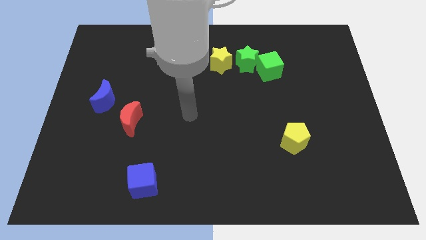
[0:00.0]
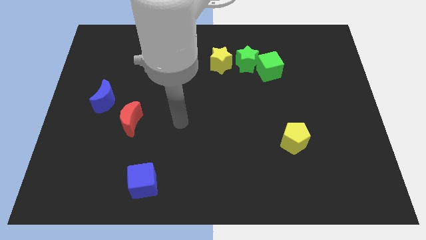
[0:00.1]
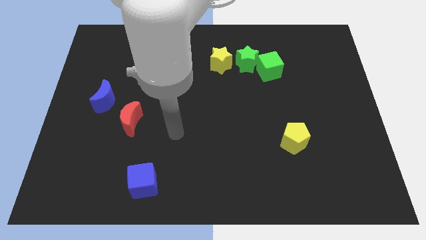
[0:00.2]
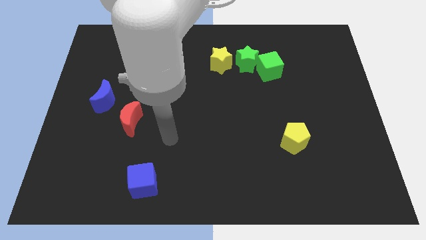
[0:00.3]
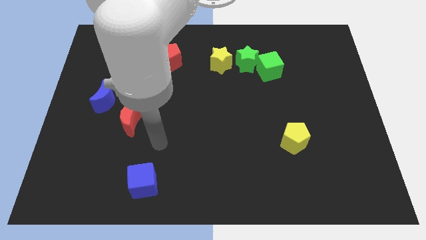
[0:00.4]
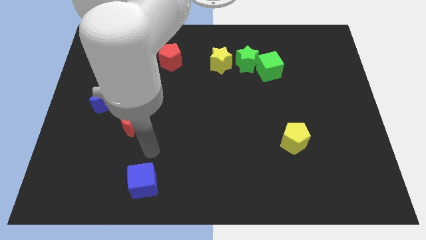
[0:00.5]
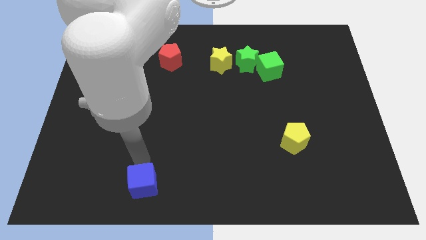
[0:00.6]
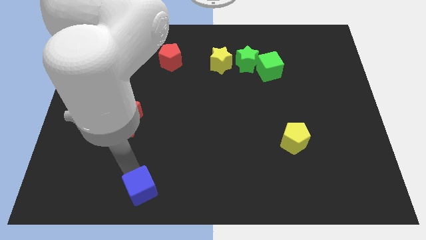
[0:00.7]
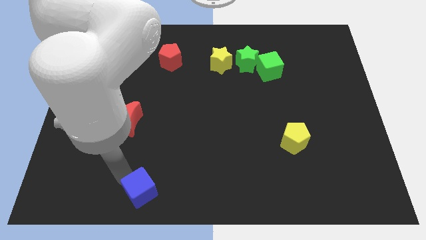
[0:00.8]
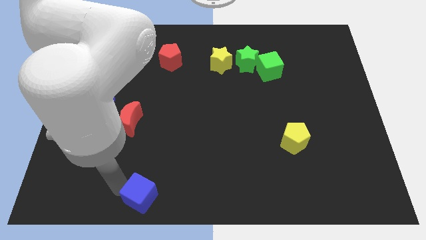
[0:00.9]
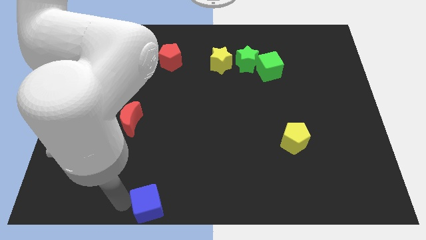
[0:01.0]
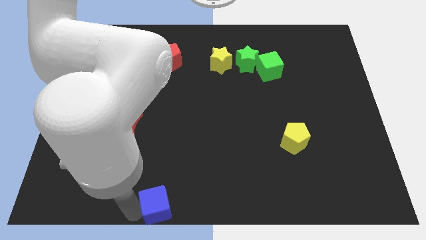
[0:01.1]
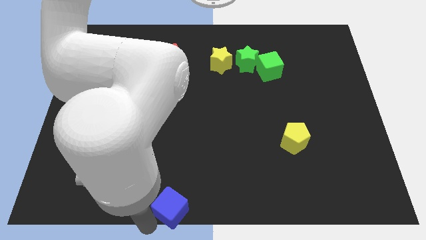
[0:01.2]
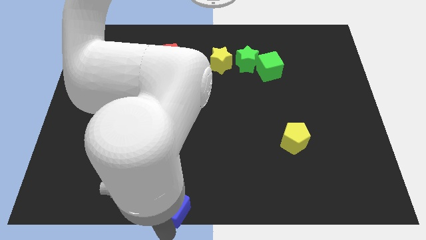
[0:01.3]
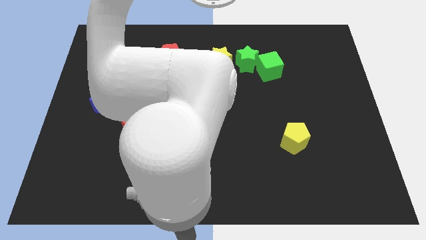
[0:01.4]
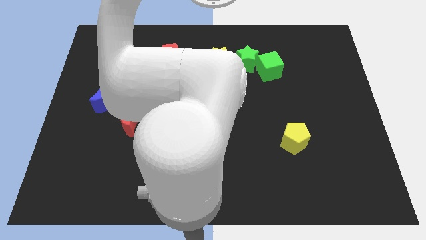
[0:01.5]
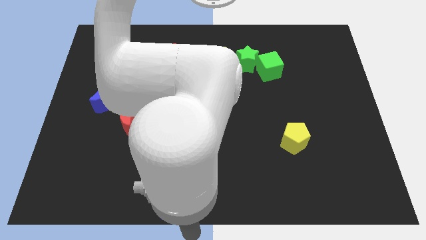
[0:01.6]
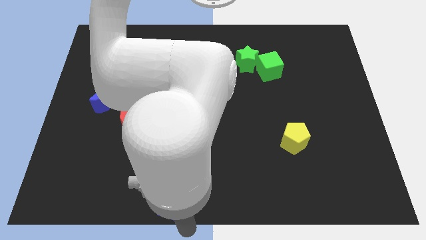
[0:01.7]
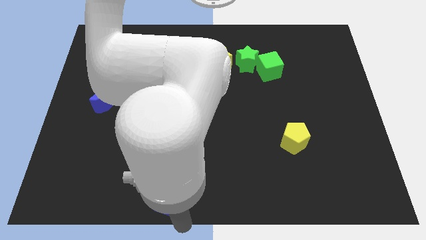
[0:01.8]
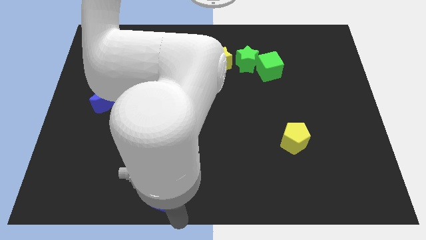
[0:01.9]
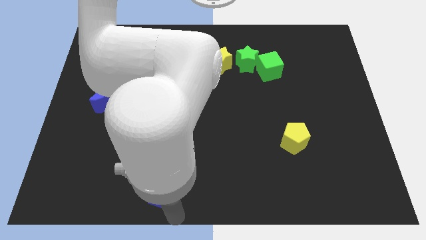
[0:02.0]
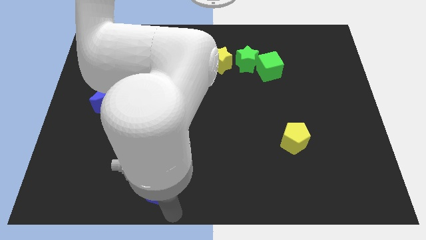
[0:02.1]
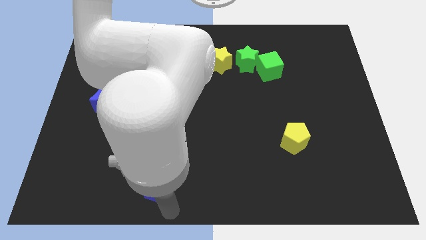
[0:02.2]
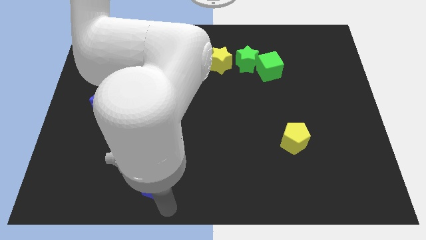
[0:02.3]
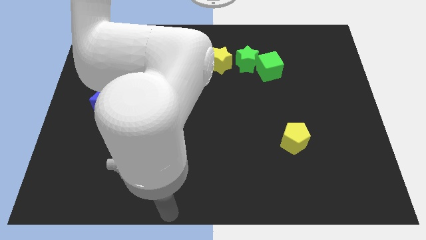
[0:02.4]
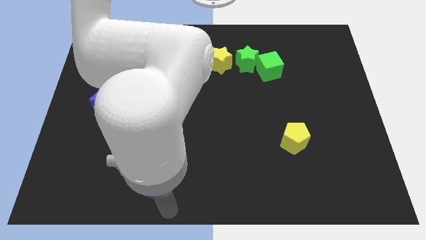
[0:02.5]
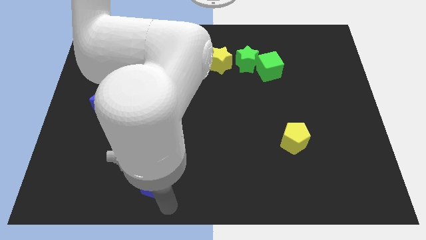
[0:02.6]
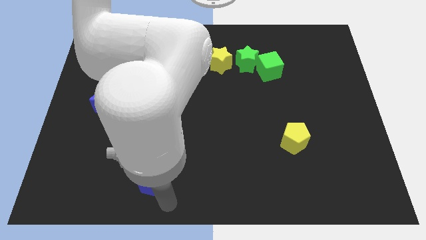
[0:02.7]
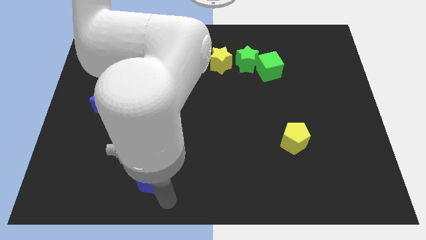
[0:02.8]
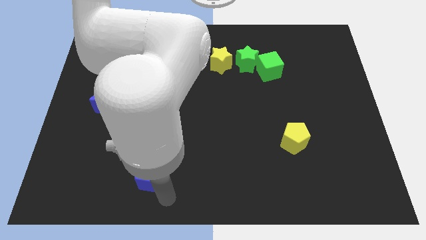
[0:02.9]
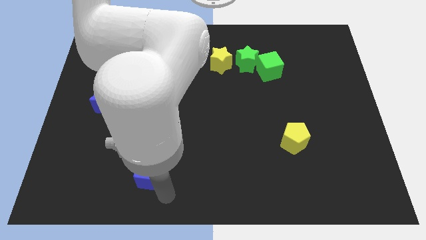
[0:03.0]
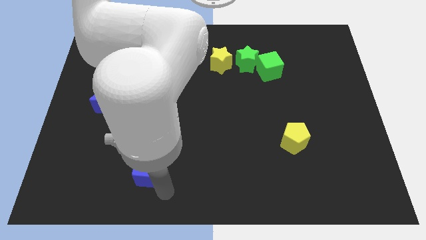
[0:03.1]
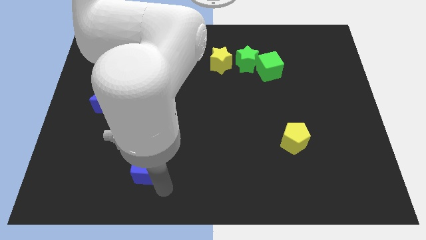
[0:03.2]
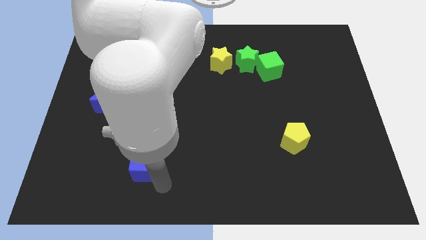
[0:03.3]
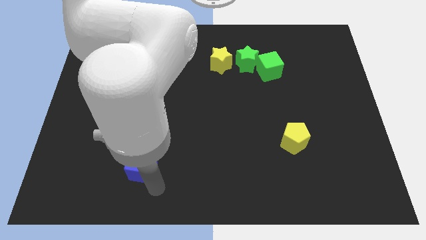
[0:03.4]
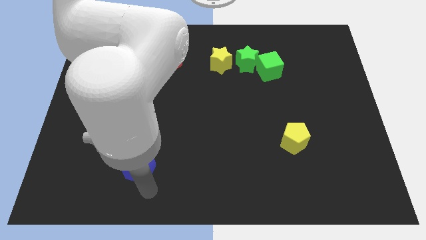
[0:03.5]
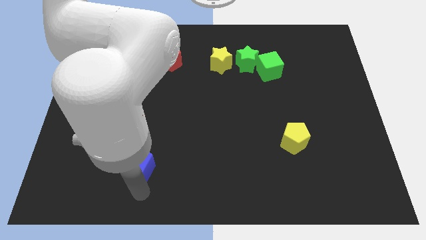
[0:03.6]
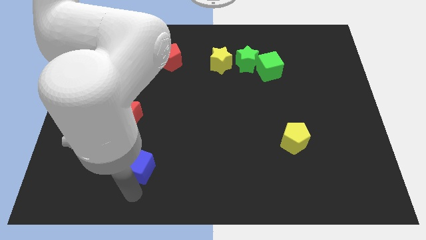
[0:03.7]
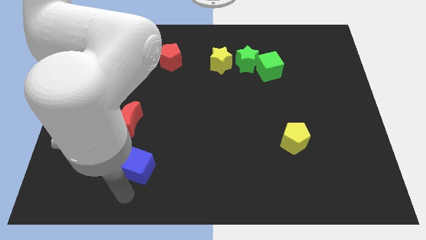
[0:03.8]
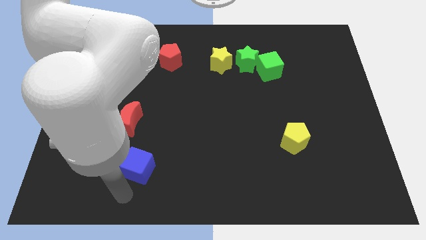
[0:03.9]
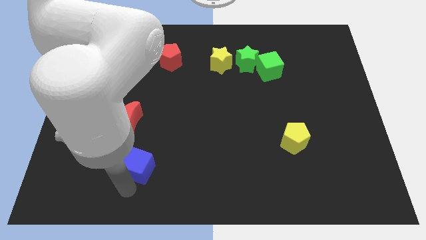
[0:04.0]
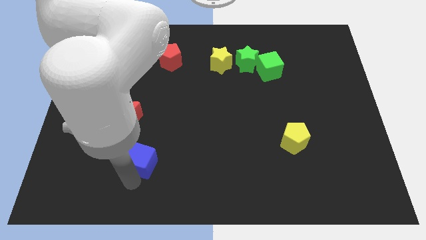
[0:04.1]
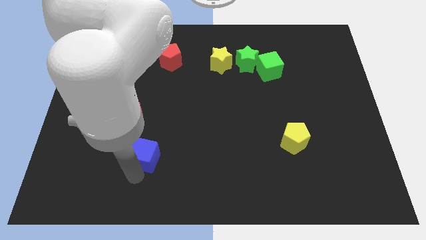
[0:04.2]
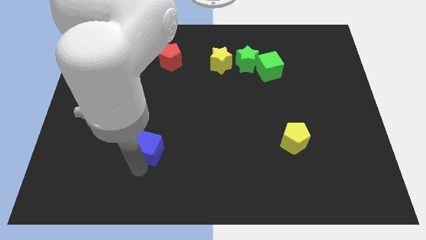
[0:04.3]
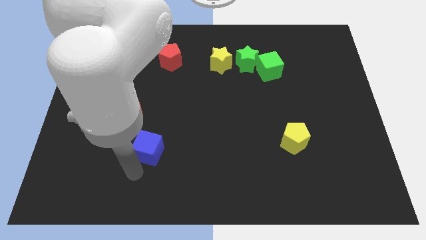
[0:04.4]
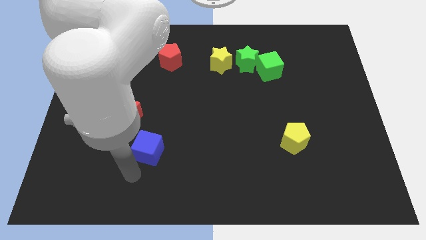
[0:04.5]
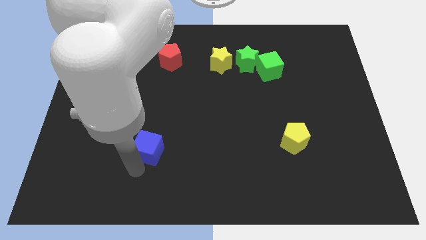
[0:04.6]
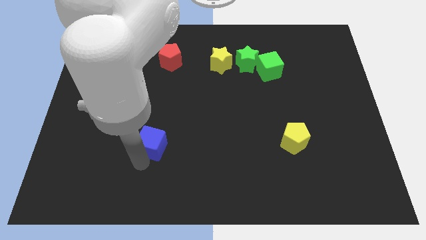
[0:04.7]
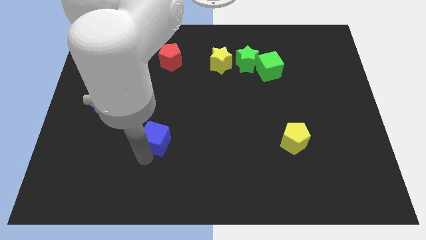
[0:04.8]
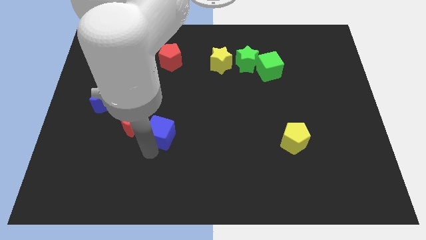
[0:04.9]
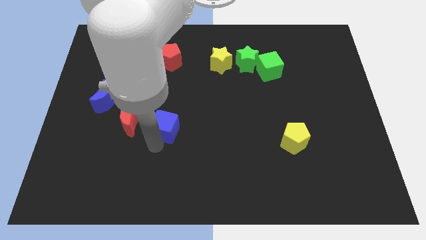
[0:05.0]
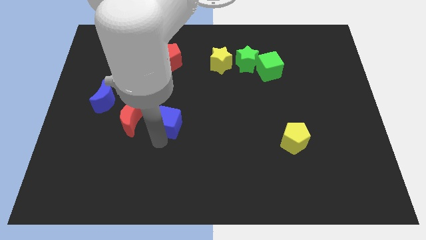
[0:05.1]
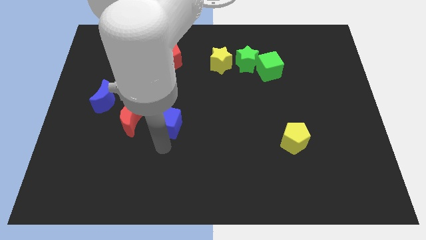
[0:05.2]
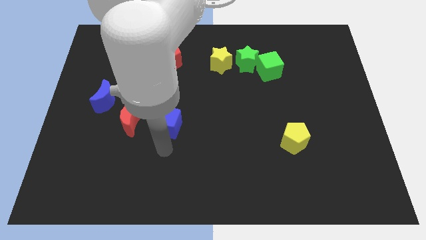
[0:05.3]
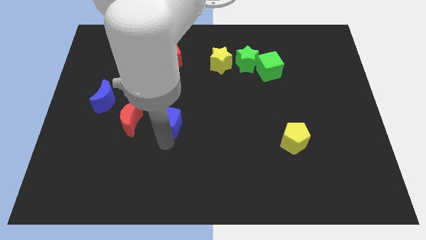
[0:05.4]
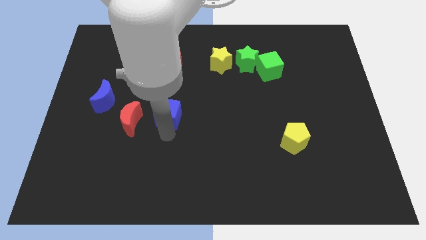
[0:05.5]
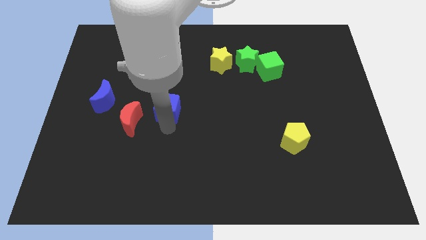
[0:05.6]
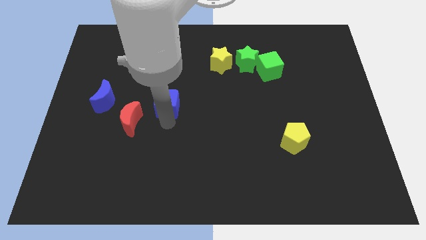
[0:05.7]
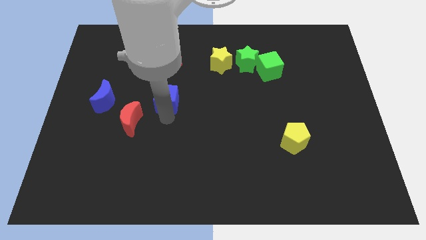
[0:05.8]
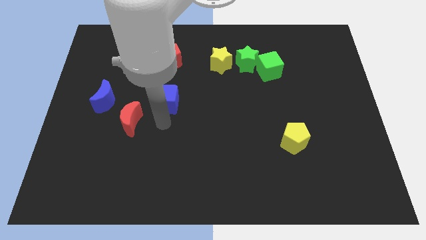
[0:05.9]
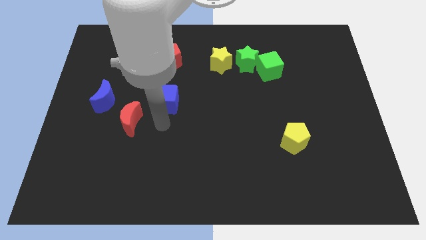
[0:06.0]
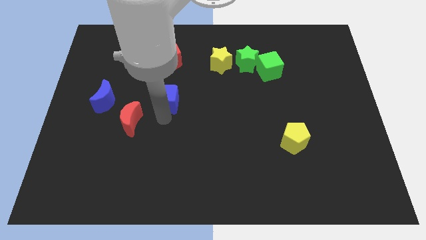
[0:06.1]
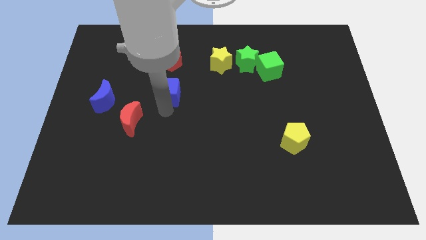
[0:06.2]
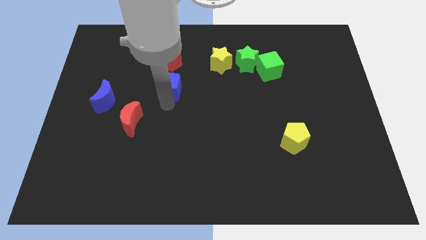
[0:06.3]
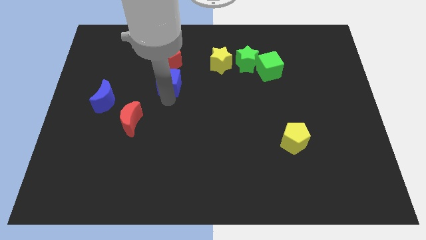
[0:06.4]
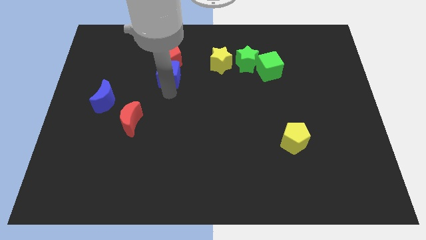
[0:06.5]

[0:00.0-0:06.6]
push the blue cube next to the red pentagon

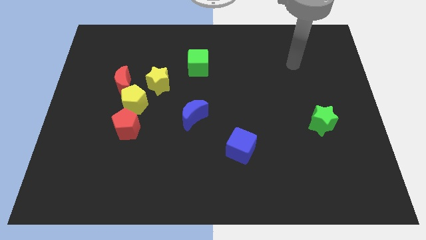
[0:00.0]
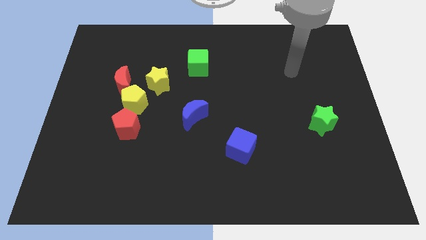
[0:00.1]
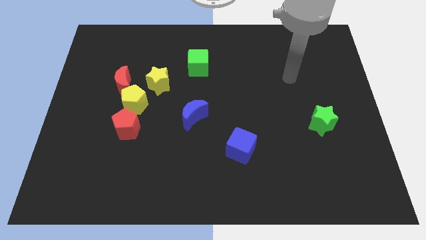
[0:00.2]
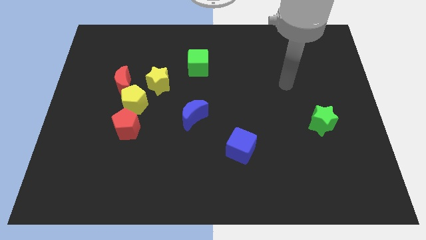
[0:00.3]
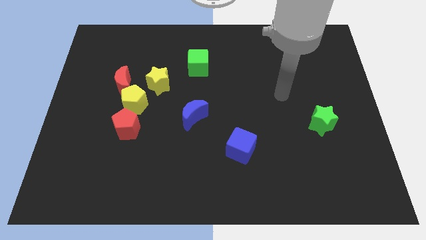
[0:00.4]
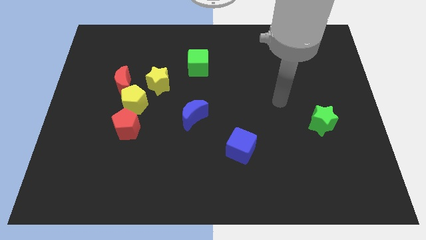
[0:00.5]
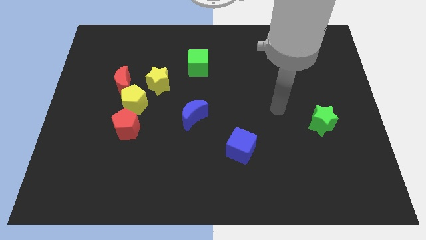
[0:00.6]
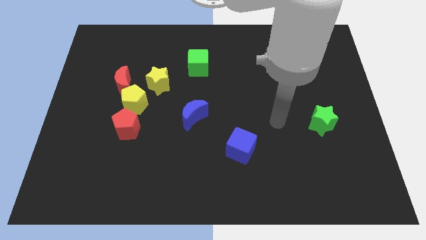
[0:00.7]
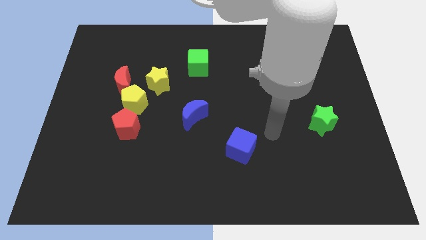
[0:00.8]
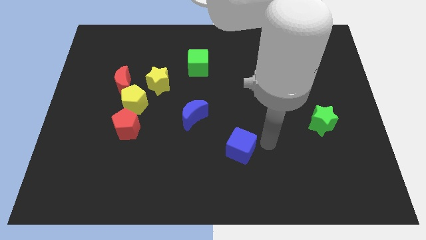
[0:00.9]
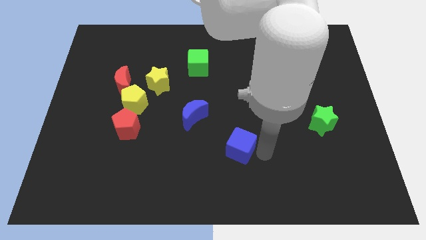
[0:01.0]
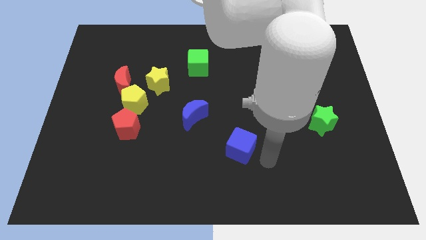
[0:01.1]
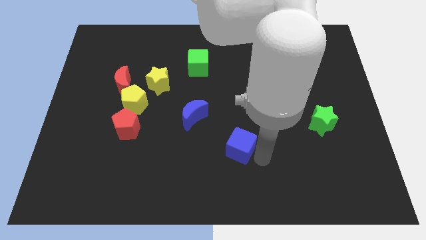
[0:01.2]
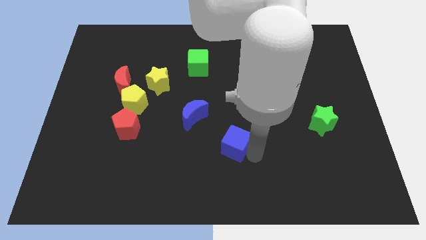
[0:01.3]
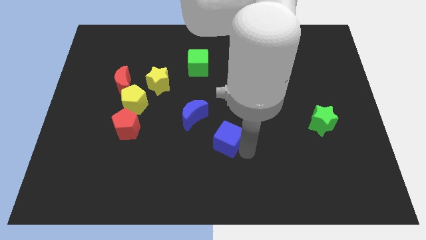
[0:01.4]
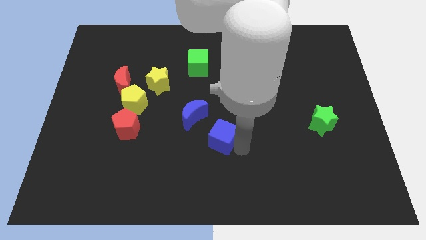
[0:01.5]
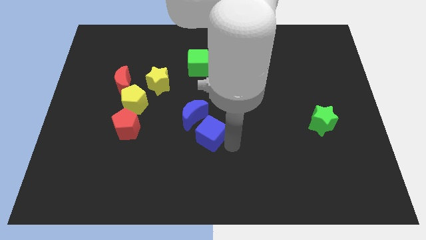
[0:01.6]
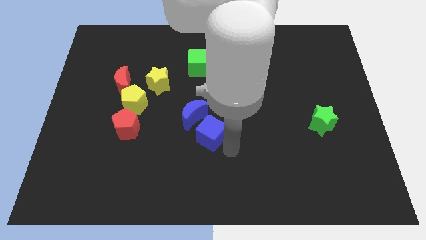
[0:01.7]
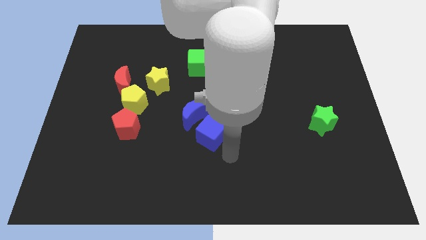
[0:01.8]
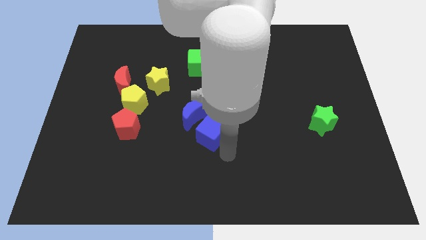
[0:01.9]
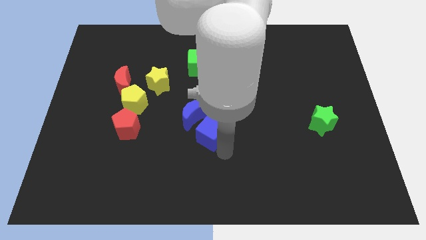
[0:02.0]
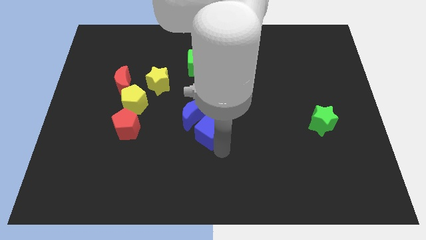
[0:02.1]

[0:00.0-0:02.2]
move the blue cube close to the blue moon
